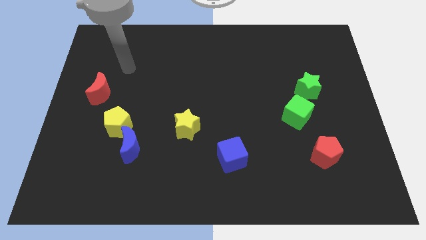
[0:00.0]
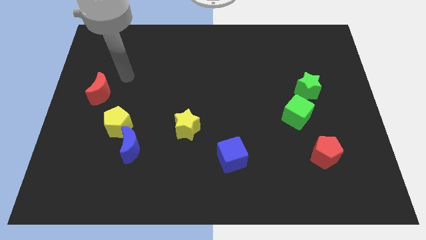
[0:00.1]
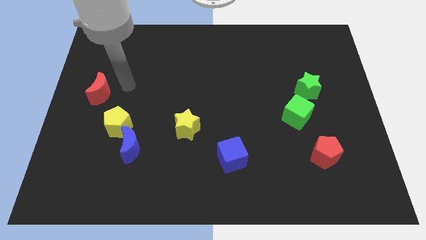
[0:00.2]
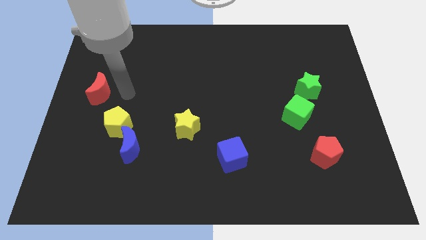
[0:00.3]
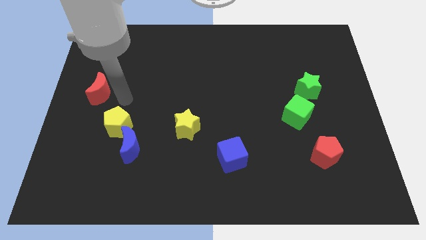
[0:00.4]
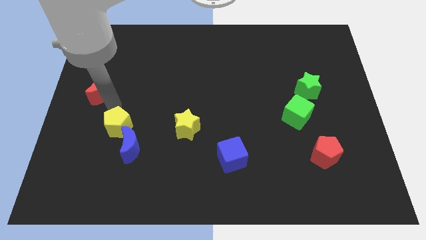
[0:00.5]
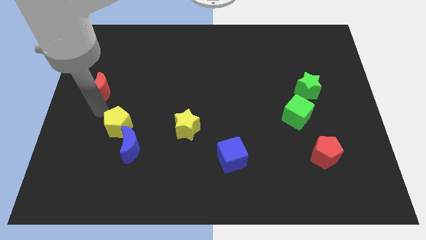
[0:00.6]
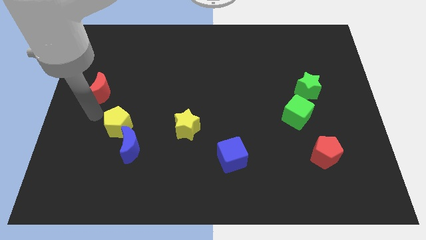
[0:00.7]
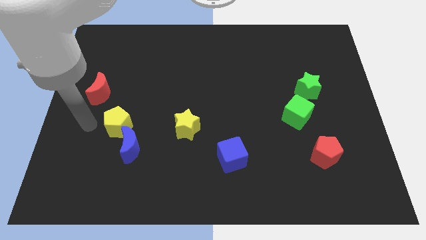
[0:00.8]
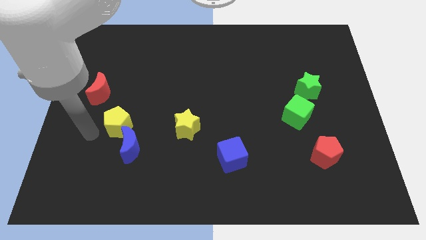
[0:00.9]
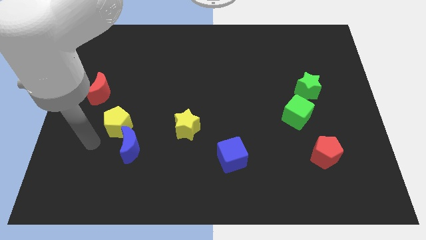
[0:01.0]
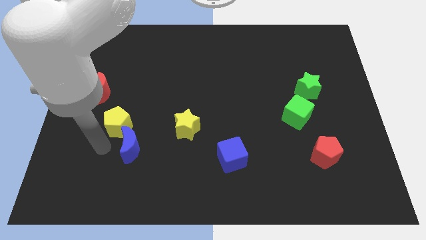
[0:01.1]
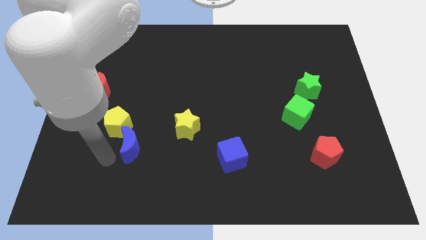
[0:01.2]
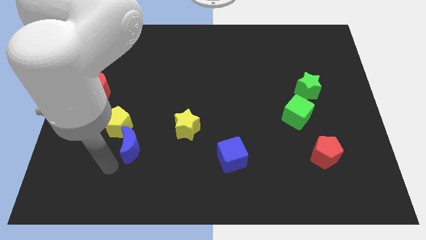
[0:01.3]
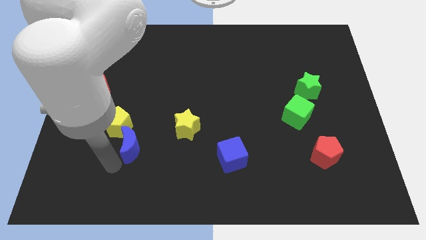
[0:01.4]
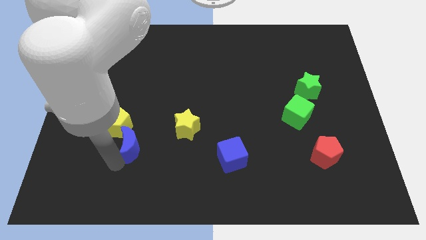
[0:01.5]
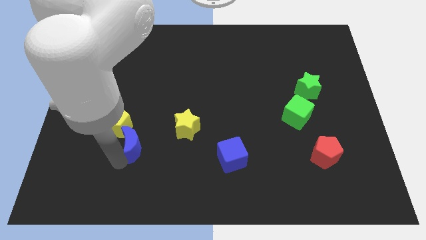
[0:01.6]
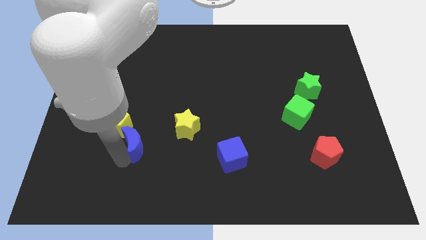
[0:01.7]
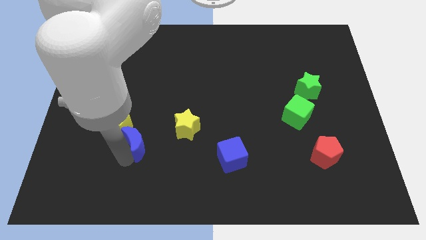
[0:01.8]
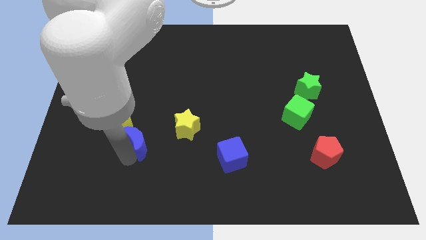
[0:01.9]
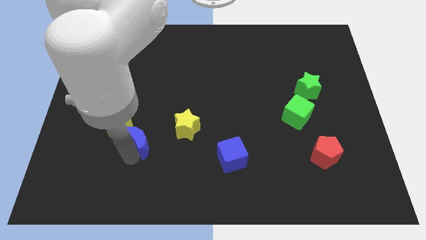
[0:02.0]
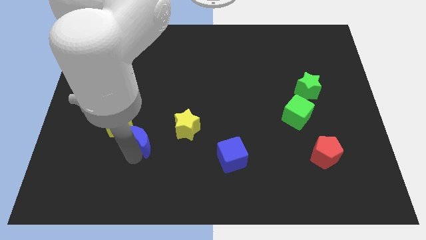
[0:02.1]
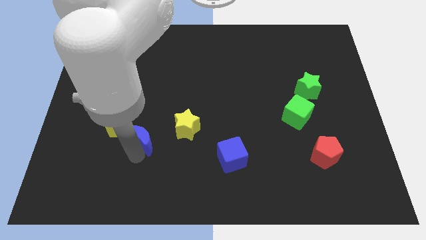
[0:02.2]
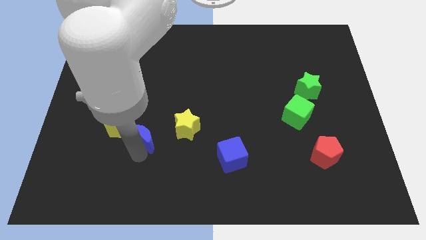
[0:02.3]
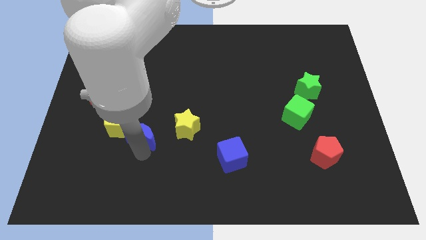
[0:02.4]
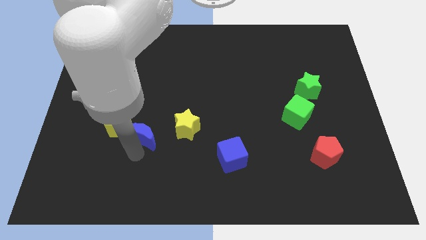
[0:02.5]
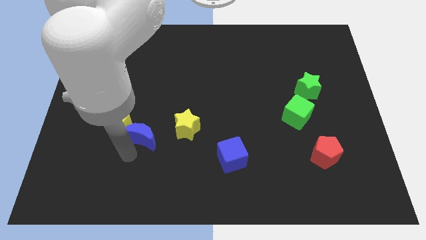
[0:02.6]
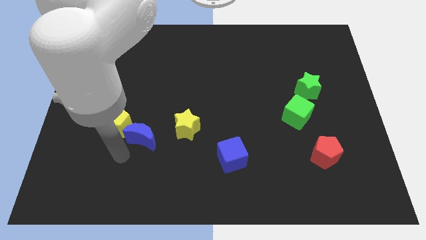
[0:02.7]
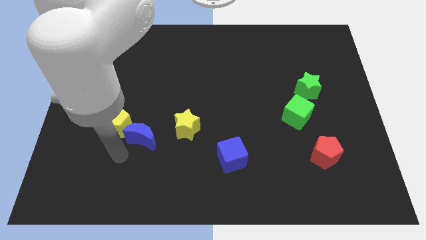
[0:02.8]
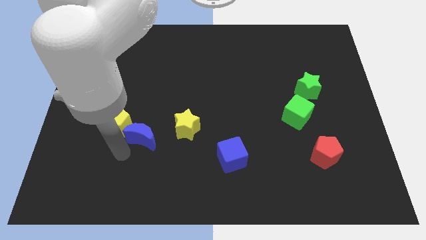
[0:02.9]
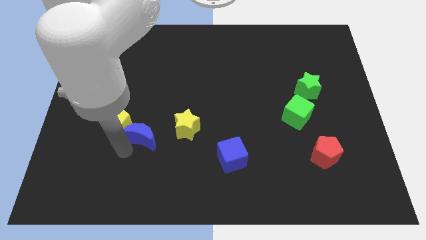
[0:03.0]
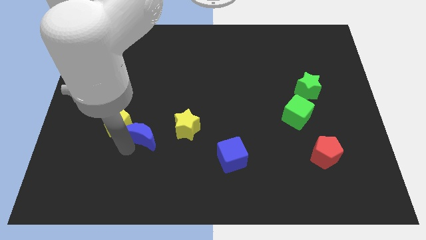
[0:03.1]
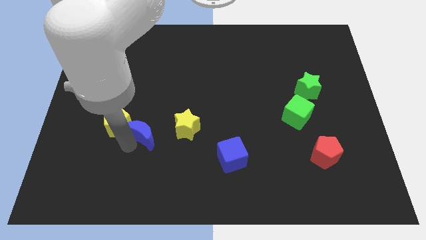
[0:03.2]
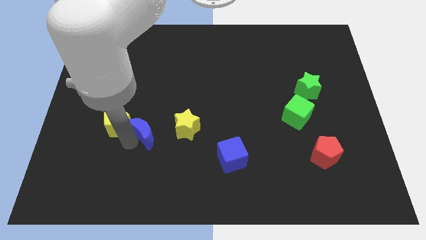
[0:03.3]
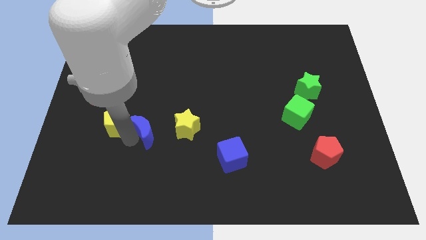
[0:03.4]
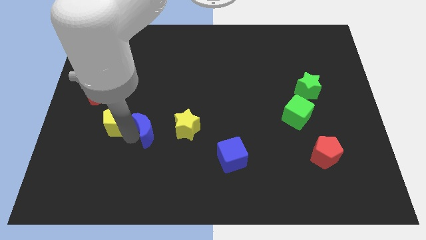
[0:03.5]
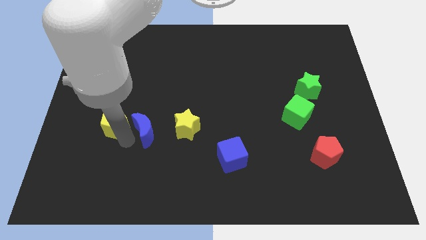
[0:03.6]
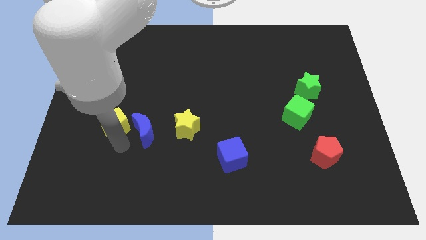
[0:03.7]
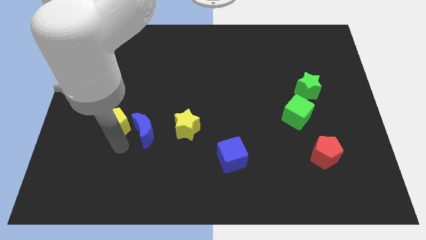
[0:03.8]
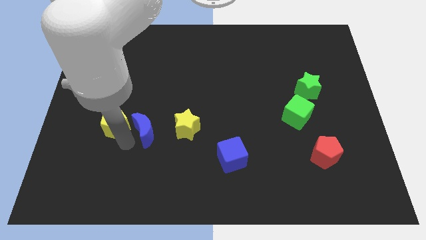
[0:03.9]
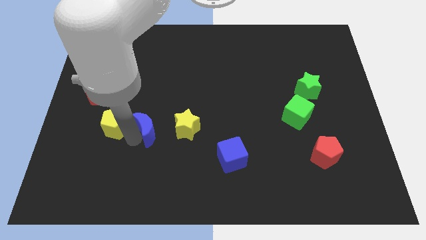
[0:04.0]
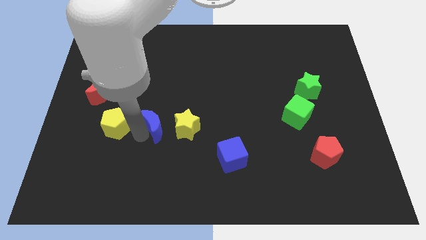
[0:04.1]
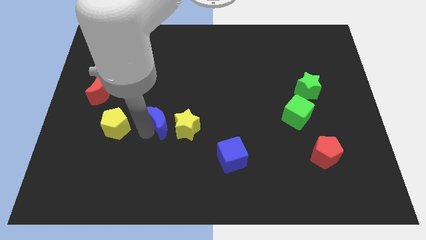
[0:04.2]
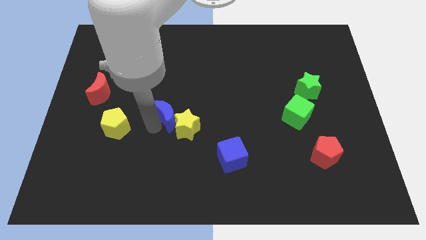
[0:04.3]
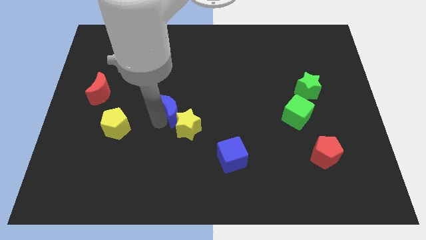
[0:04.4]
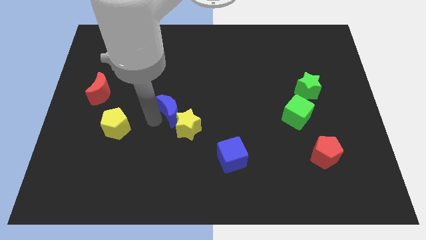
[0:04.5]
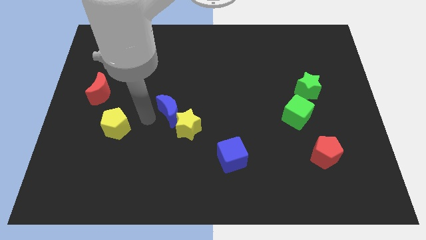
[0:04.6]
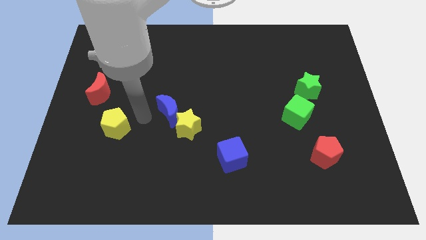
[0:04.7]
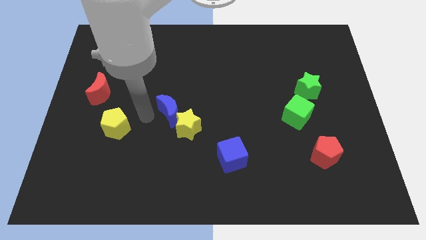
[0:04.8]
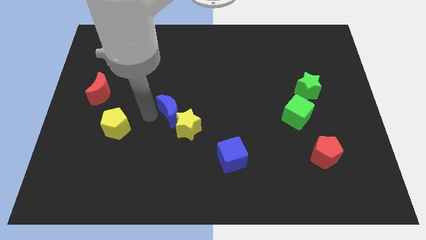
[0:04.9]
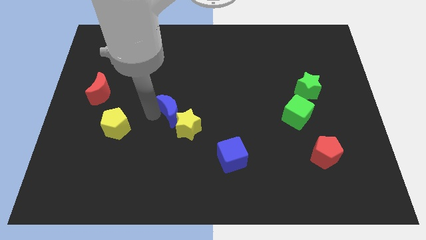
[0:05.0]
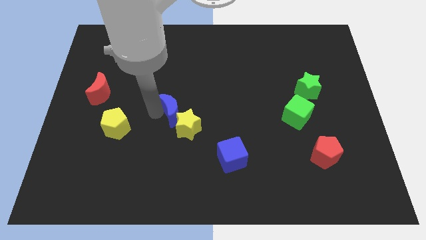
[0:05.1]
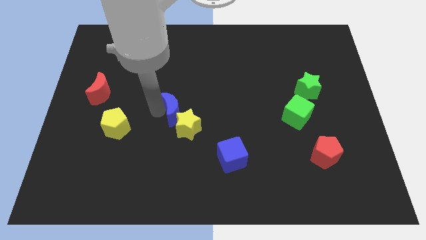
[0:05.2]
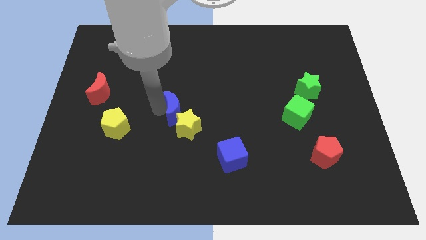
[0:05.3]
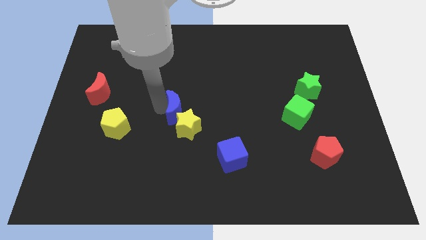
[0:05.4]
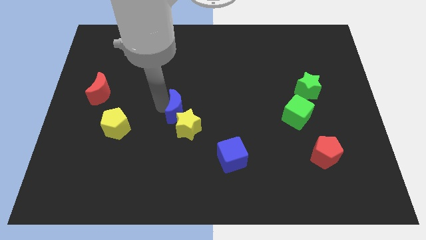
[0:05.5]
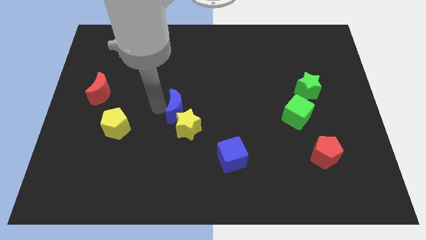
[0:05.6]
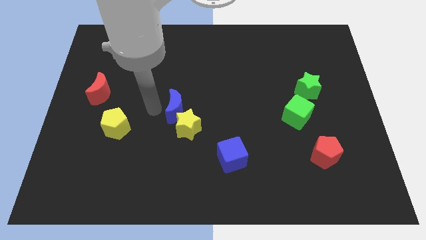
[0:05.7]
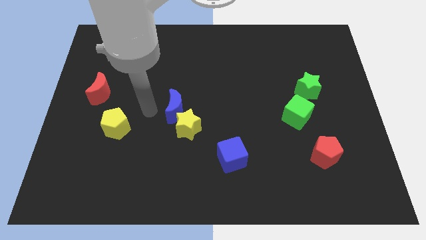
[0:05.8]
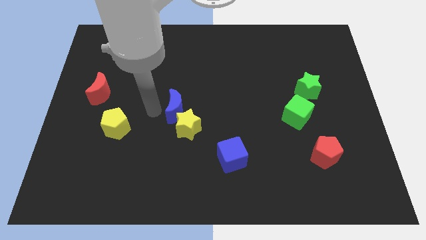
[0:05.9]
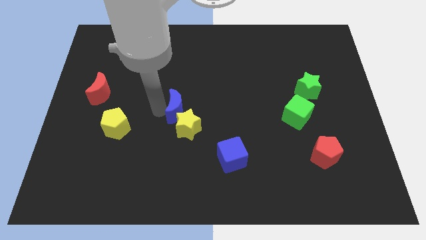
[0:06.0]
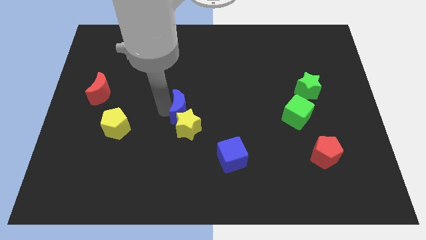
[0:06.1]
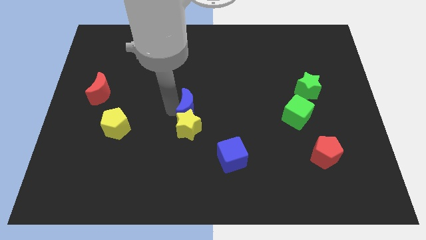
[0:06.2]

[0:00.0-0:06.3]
move the blue moon to the top right of the yellow star

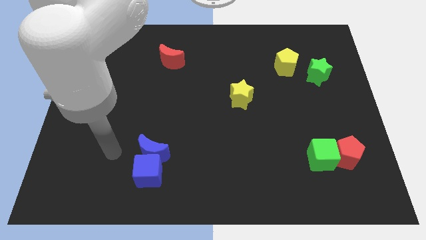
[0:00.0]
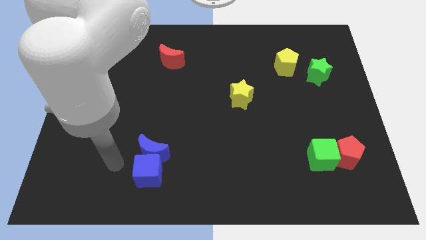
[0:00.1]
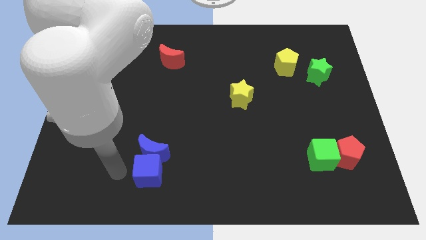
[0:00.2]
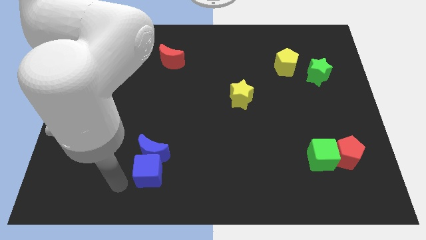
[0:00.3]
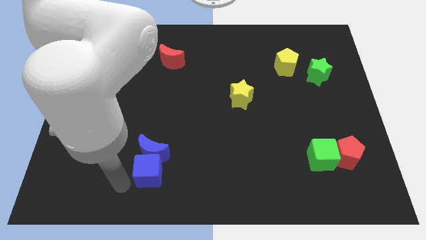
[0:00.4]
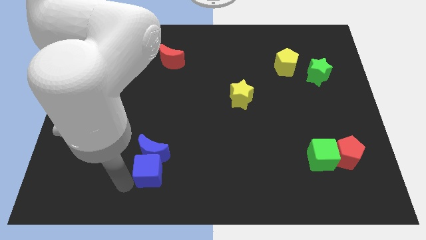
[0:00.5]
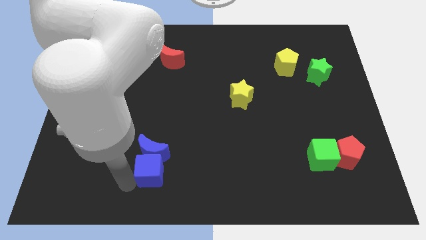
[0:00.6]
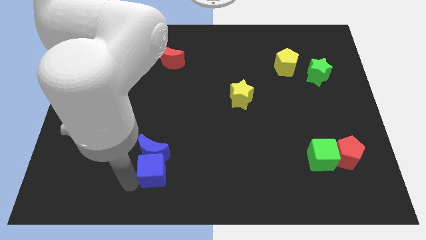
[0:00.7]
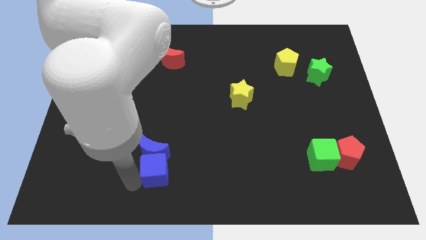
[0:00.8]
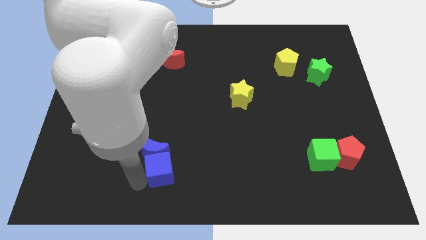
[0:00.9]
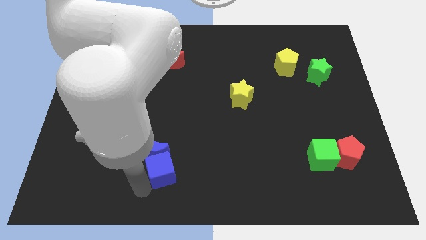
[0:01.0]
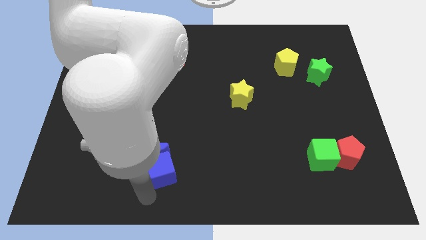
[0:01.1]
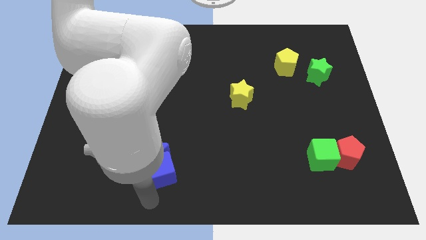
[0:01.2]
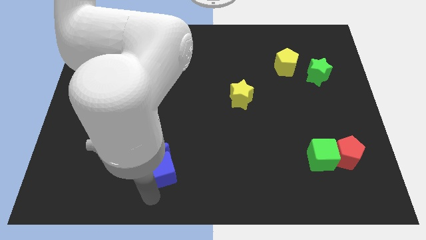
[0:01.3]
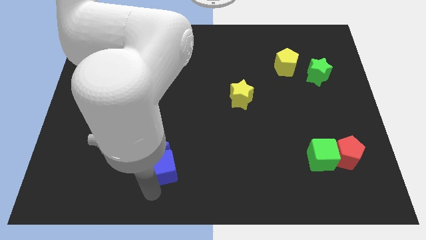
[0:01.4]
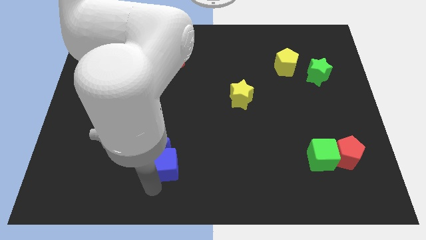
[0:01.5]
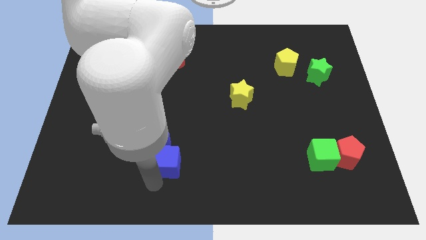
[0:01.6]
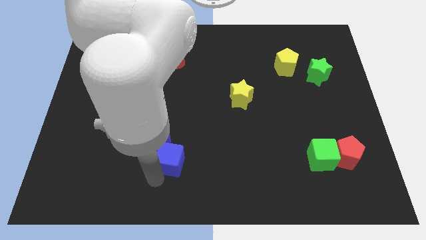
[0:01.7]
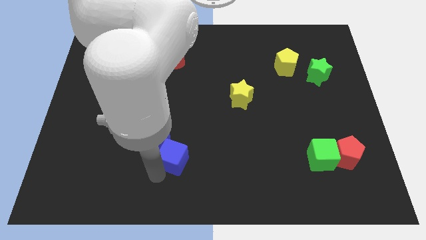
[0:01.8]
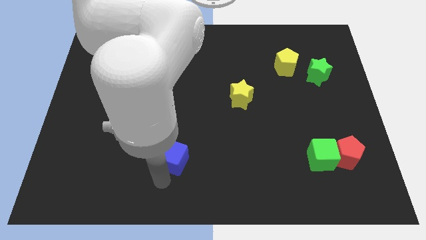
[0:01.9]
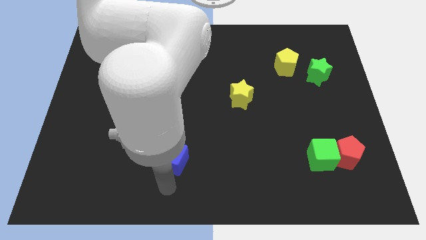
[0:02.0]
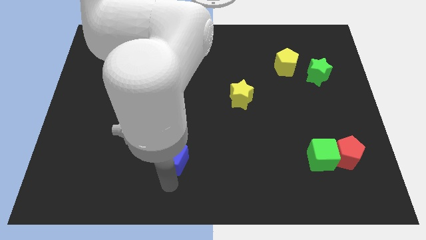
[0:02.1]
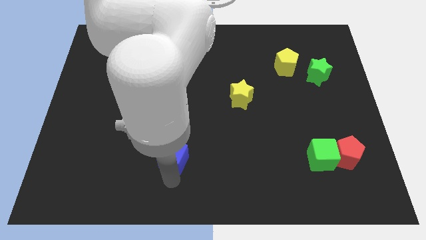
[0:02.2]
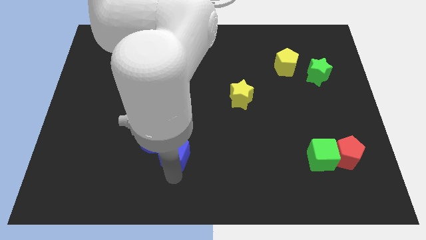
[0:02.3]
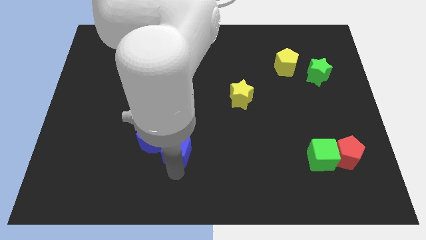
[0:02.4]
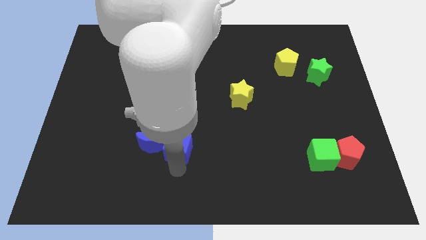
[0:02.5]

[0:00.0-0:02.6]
push the blue cube diagonally up and to the right of the blue moon

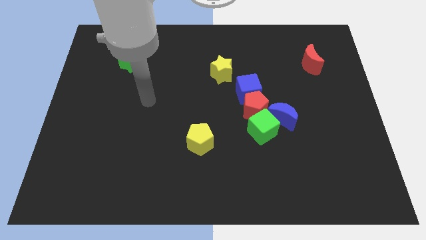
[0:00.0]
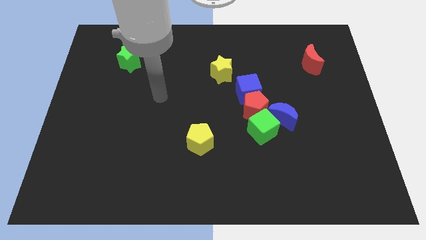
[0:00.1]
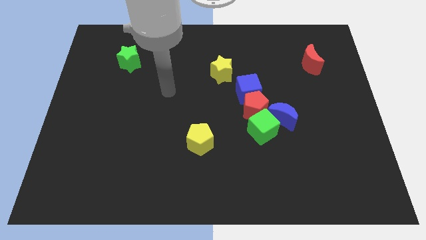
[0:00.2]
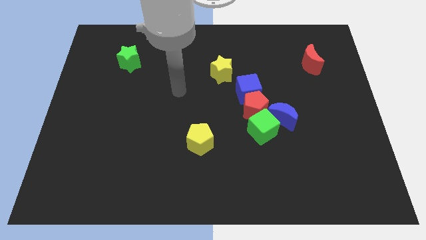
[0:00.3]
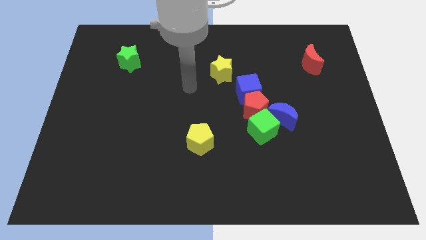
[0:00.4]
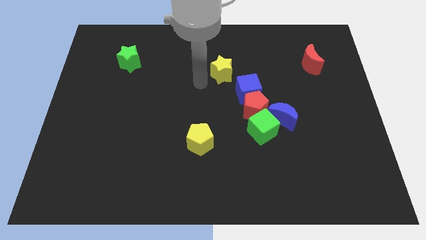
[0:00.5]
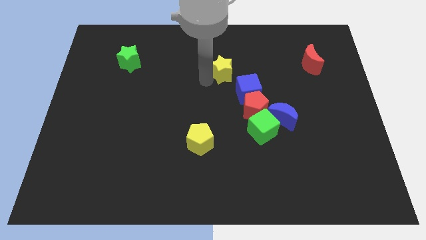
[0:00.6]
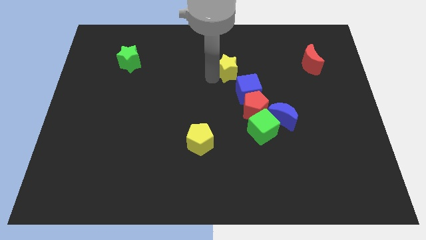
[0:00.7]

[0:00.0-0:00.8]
move the yellow star above the blue cube
